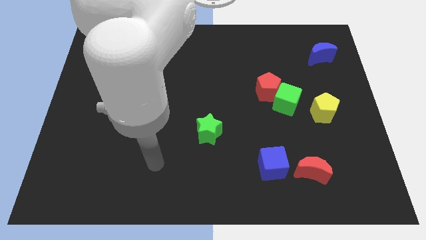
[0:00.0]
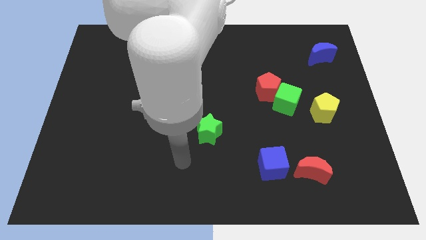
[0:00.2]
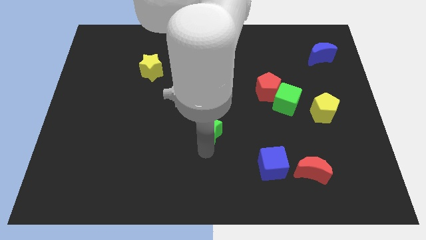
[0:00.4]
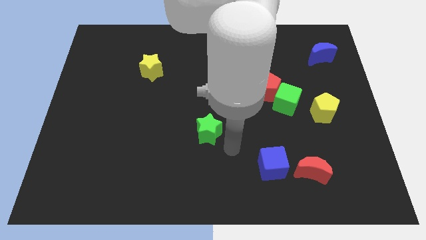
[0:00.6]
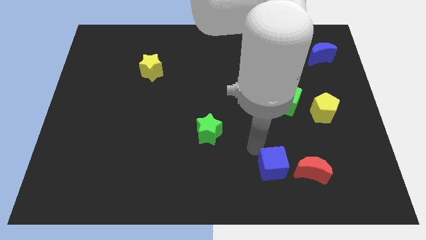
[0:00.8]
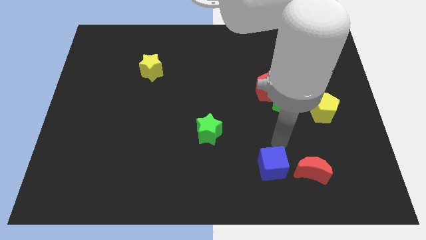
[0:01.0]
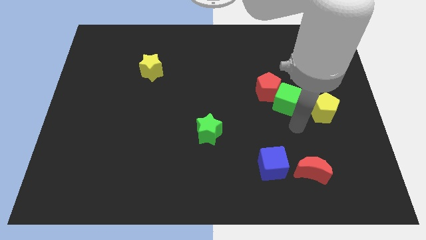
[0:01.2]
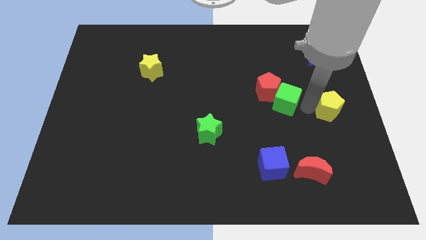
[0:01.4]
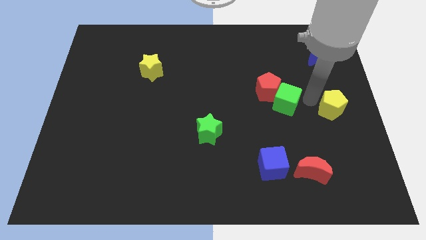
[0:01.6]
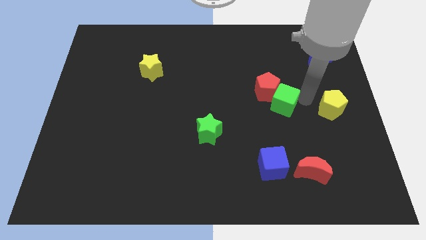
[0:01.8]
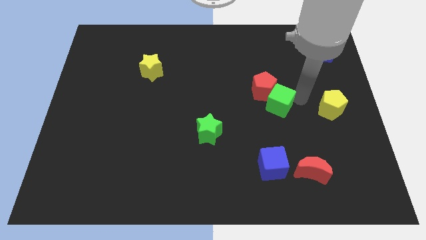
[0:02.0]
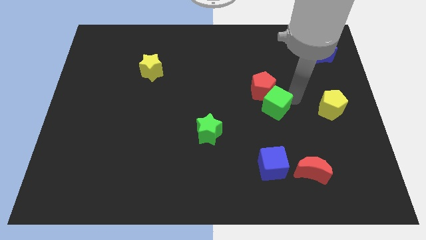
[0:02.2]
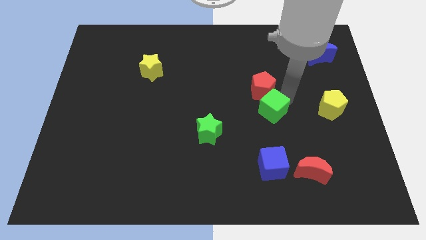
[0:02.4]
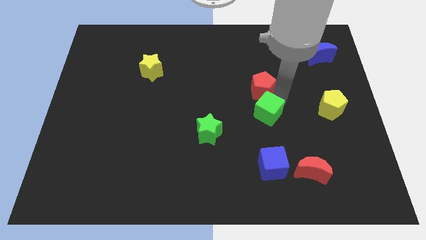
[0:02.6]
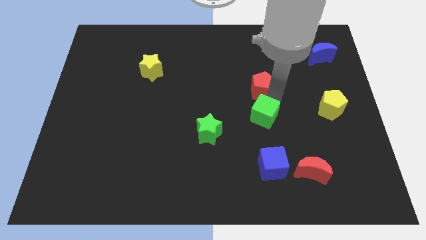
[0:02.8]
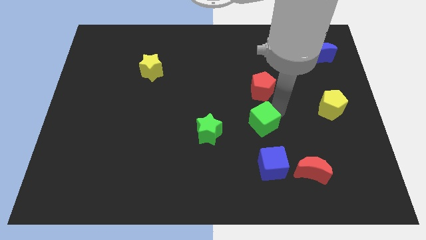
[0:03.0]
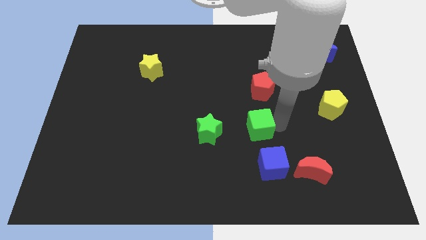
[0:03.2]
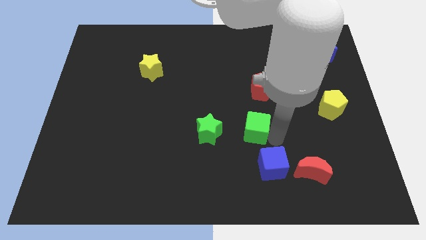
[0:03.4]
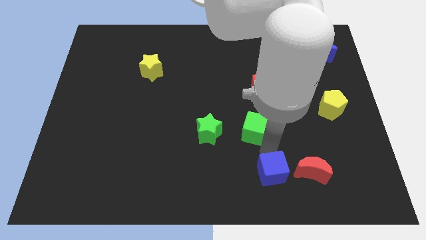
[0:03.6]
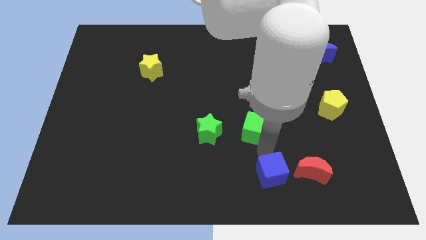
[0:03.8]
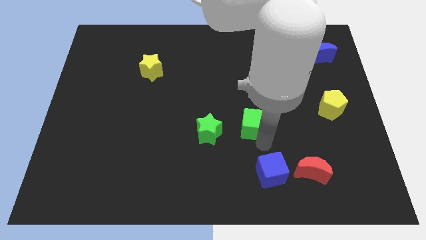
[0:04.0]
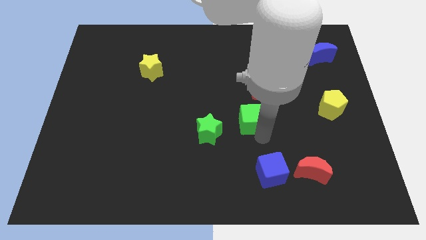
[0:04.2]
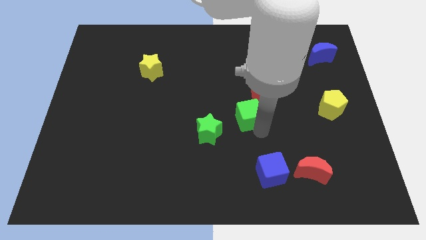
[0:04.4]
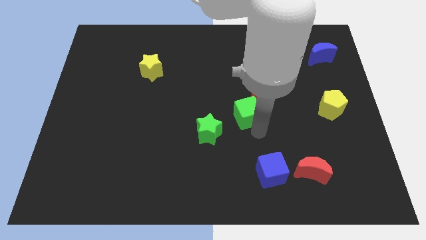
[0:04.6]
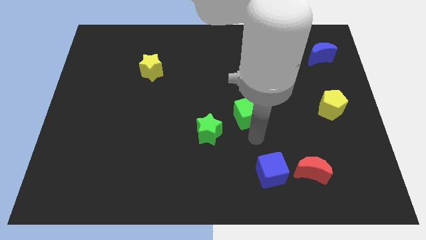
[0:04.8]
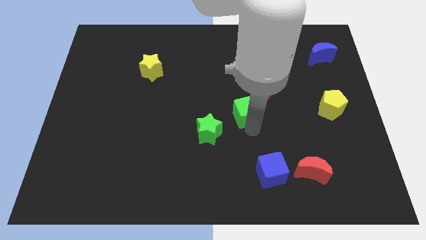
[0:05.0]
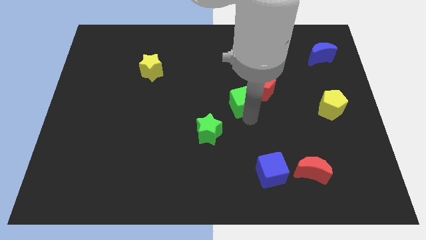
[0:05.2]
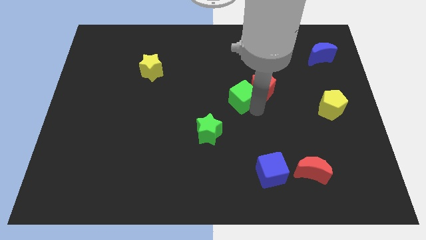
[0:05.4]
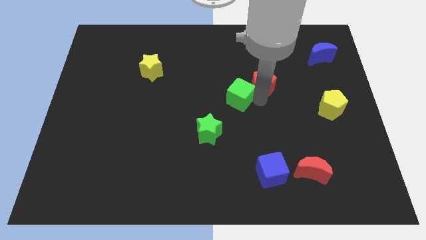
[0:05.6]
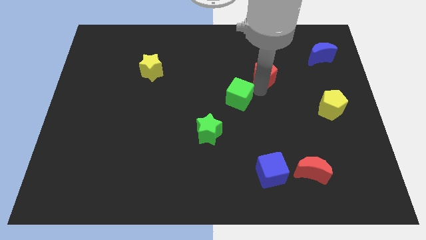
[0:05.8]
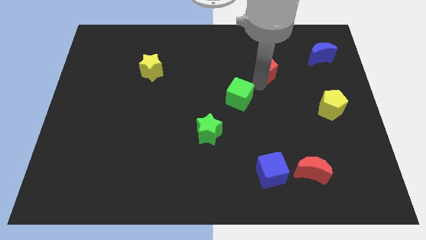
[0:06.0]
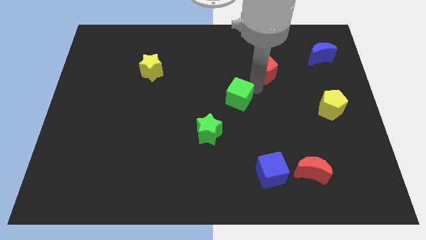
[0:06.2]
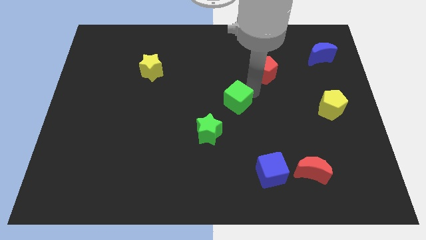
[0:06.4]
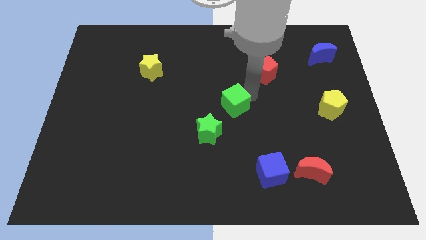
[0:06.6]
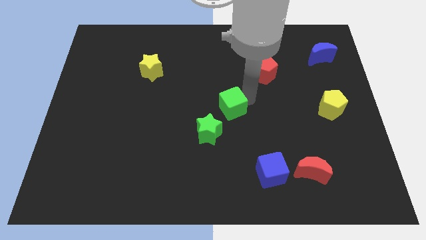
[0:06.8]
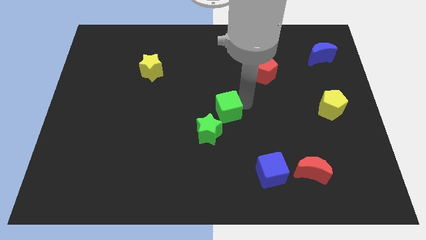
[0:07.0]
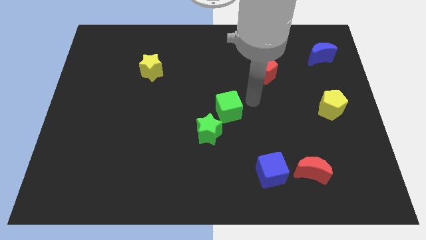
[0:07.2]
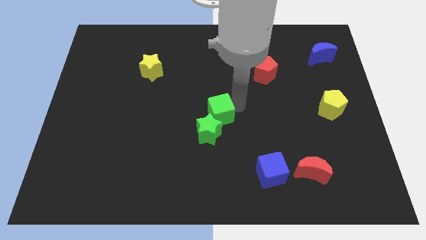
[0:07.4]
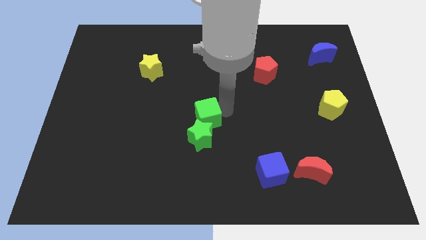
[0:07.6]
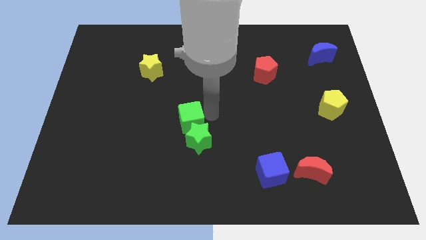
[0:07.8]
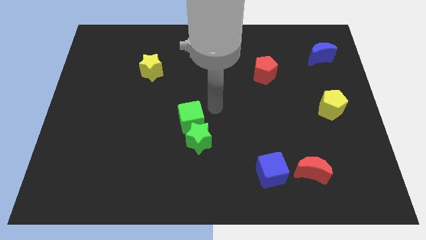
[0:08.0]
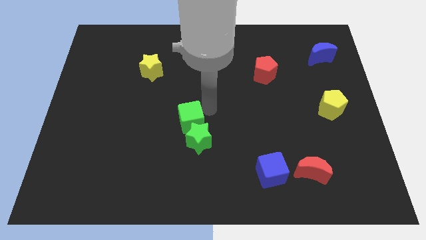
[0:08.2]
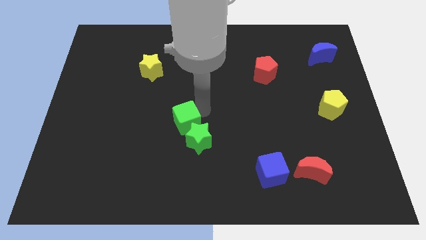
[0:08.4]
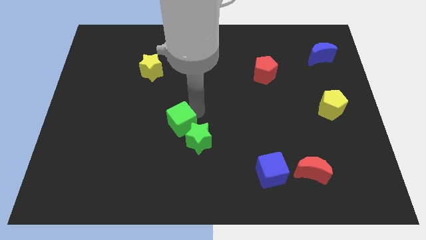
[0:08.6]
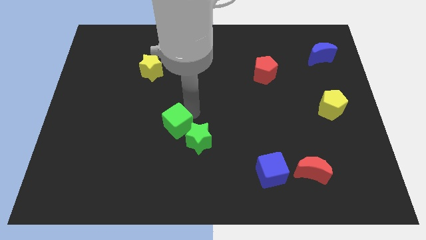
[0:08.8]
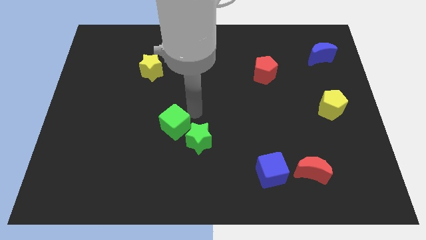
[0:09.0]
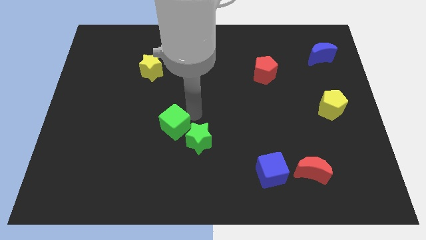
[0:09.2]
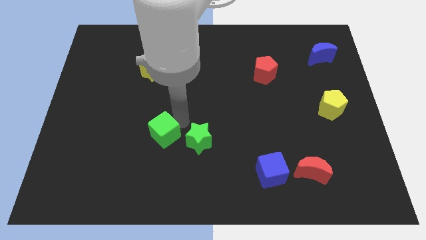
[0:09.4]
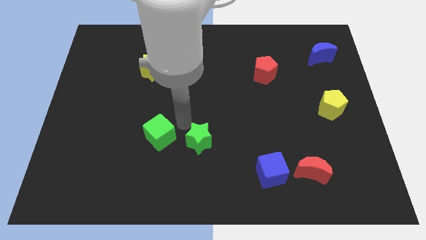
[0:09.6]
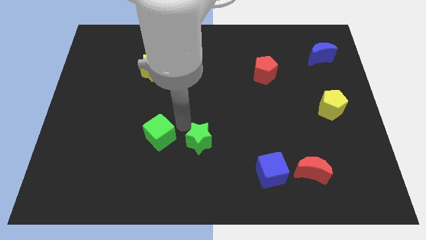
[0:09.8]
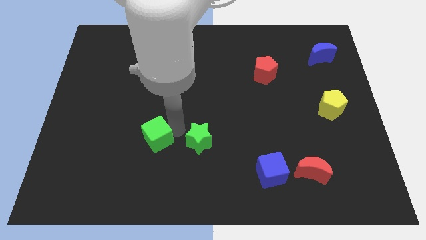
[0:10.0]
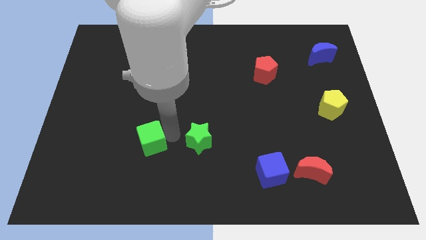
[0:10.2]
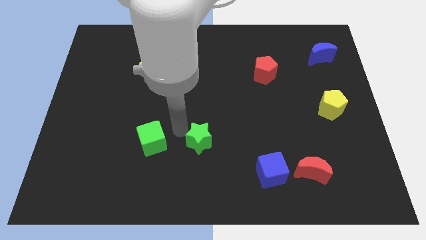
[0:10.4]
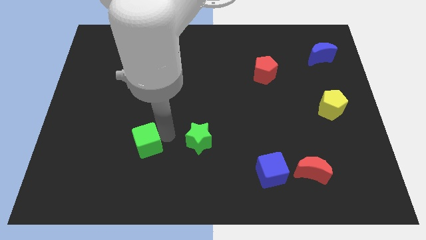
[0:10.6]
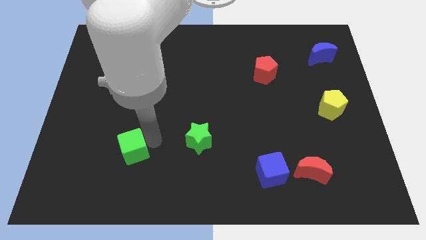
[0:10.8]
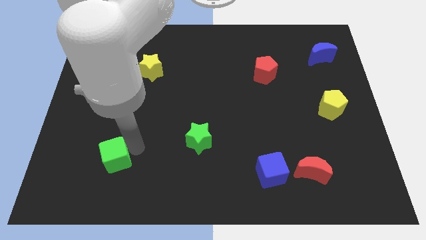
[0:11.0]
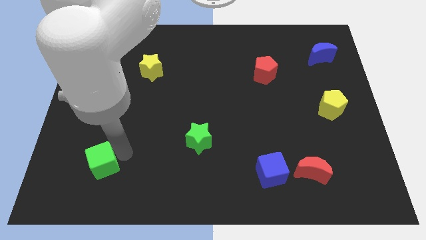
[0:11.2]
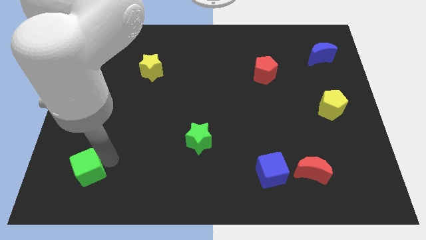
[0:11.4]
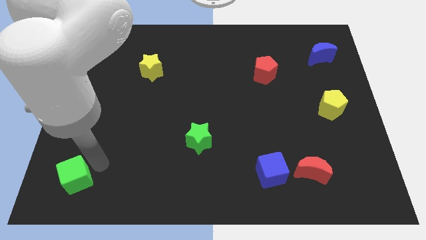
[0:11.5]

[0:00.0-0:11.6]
put the green cube to the bottom left corner
